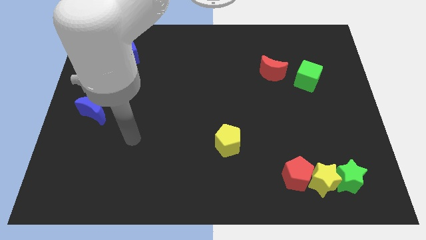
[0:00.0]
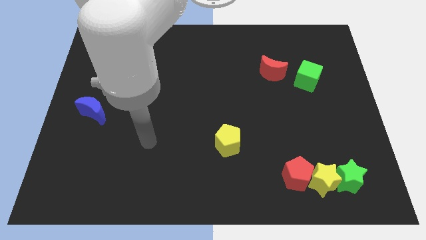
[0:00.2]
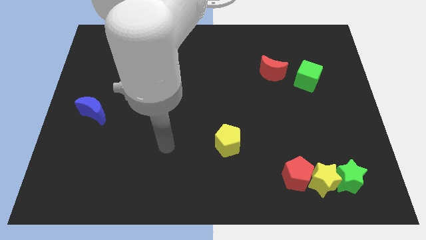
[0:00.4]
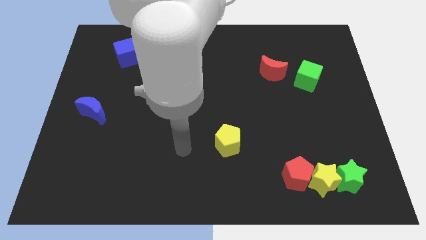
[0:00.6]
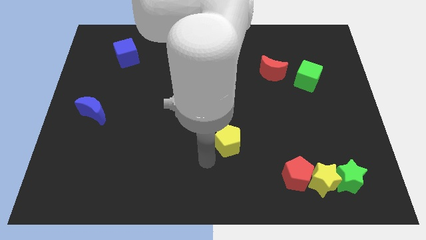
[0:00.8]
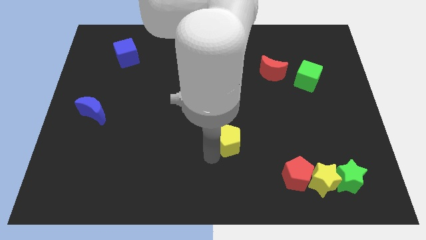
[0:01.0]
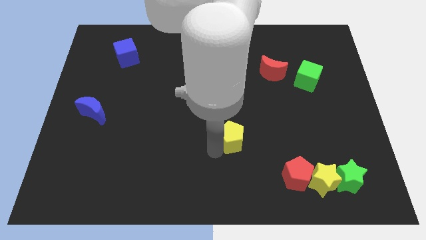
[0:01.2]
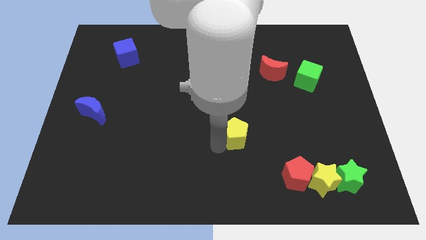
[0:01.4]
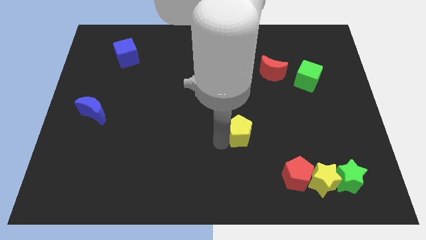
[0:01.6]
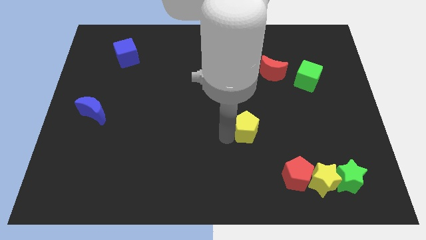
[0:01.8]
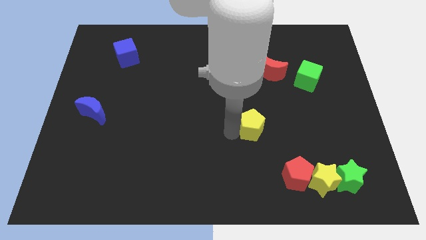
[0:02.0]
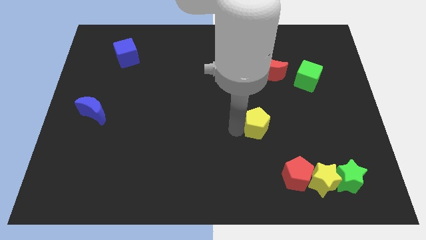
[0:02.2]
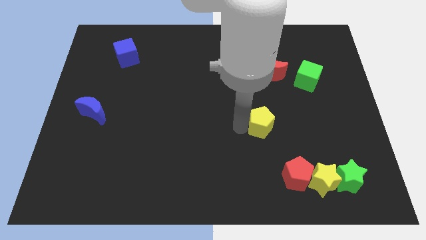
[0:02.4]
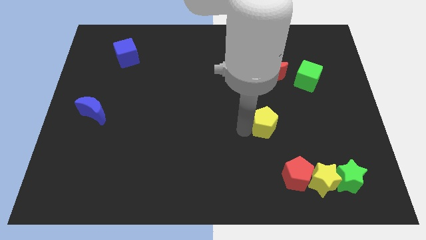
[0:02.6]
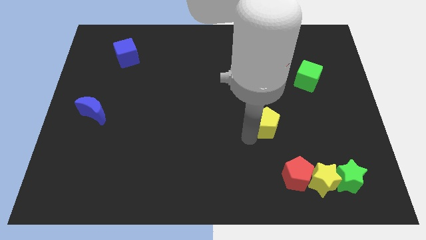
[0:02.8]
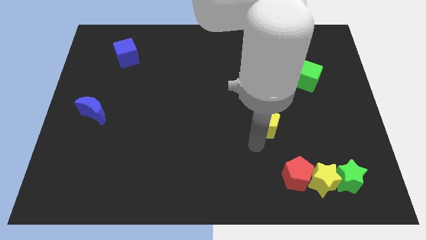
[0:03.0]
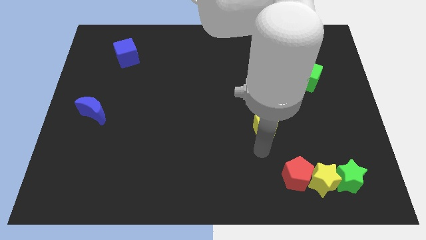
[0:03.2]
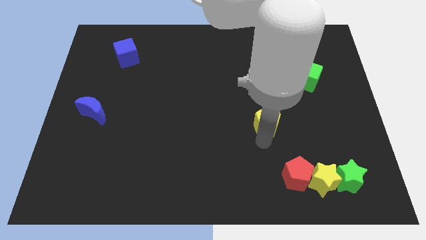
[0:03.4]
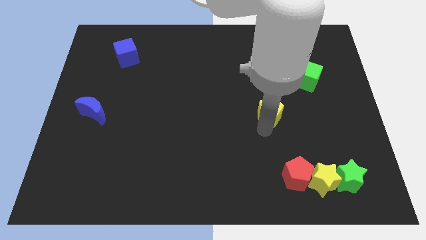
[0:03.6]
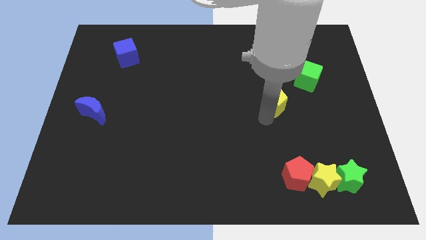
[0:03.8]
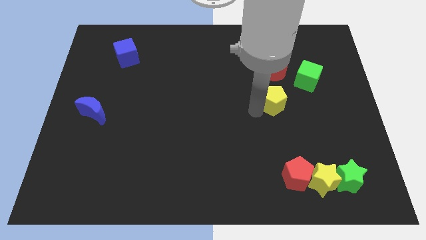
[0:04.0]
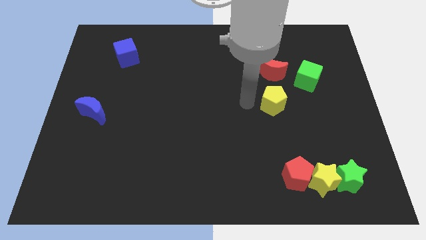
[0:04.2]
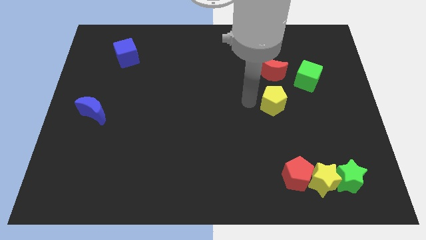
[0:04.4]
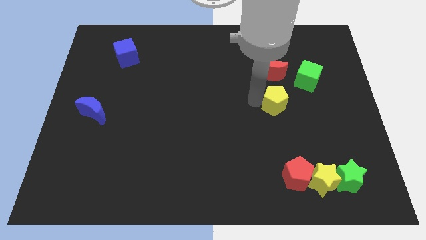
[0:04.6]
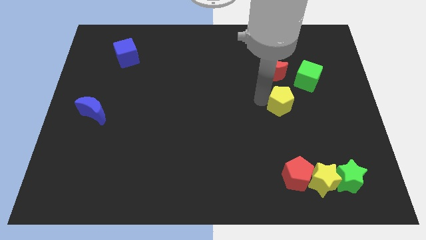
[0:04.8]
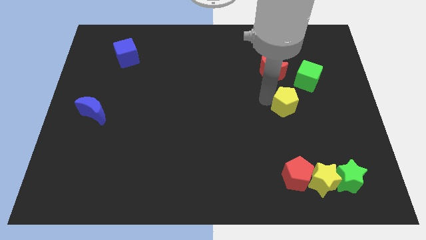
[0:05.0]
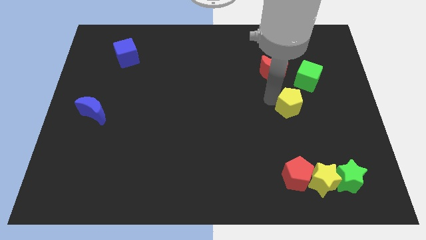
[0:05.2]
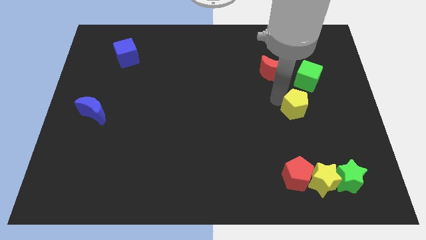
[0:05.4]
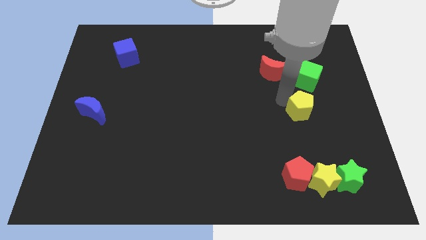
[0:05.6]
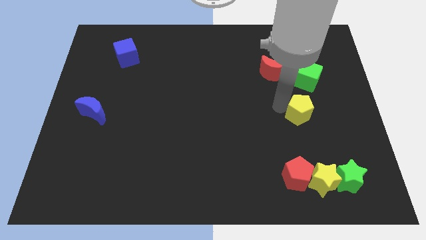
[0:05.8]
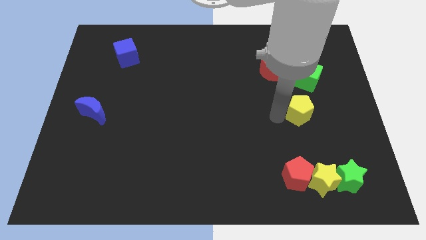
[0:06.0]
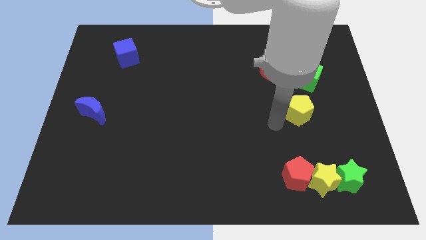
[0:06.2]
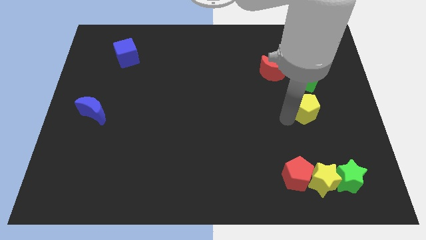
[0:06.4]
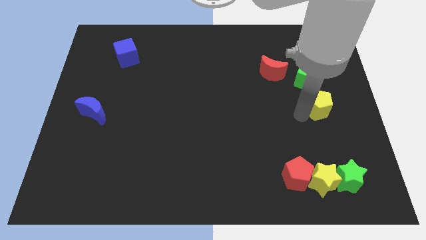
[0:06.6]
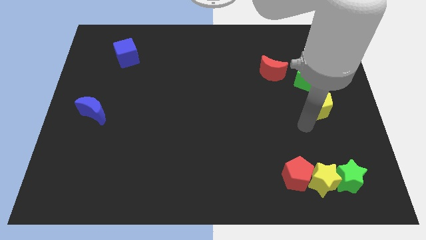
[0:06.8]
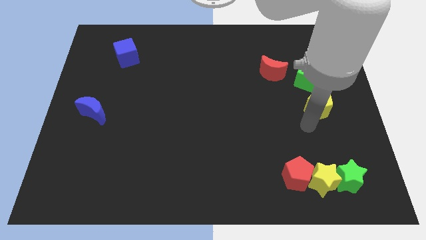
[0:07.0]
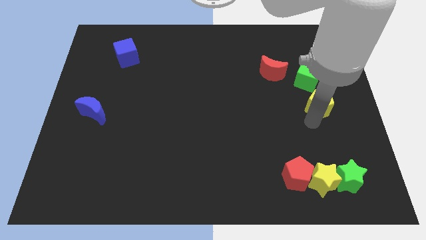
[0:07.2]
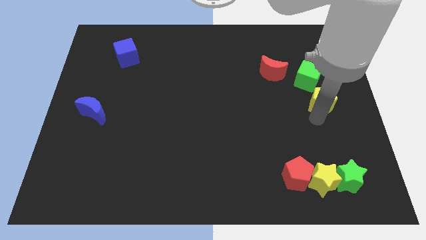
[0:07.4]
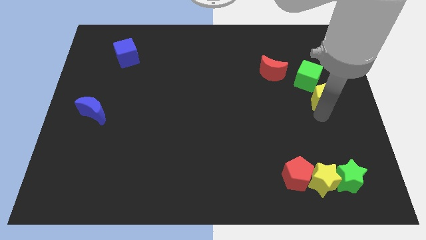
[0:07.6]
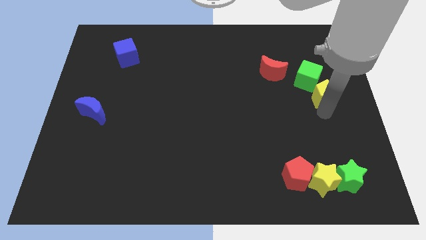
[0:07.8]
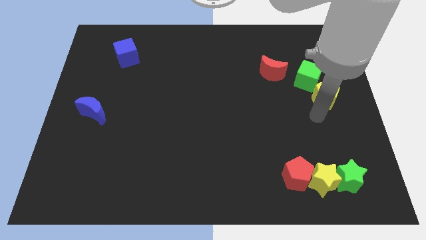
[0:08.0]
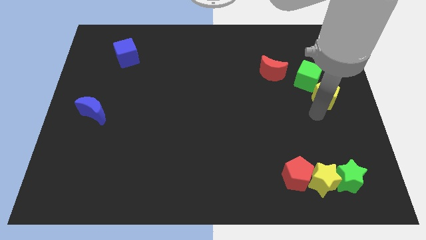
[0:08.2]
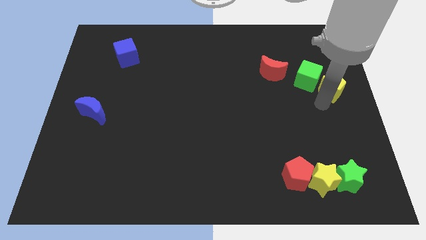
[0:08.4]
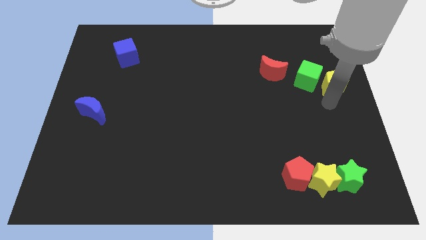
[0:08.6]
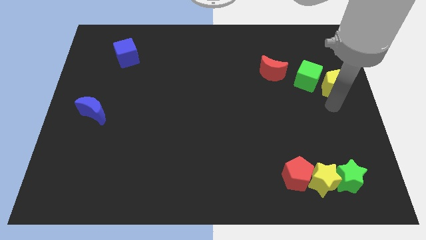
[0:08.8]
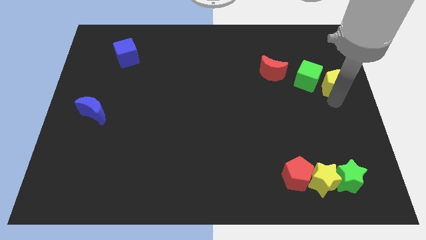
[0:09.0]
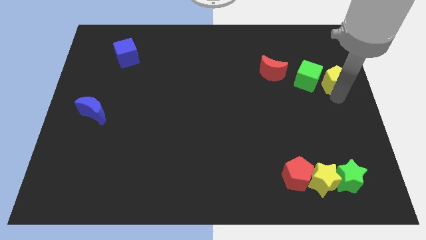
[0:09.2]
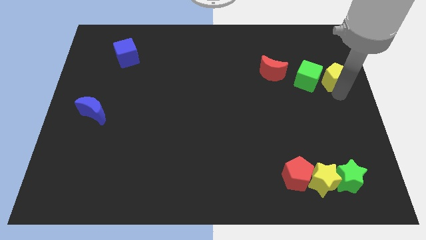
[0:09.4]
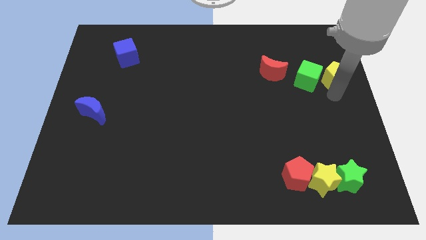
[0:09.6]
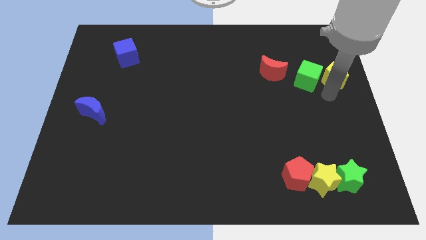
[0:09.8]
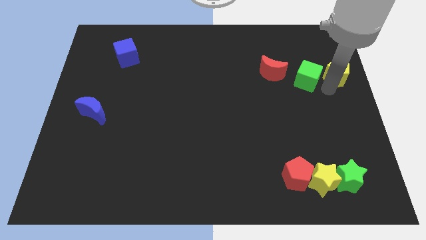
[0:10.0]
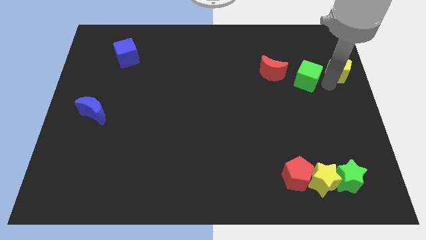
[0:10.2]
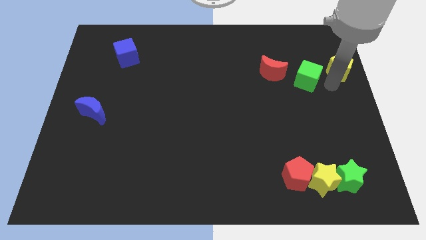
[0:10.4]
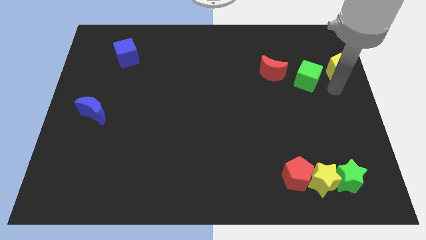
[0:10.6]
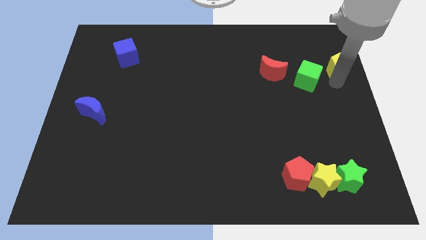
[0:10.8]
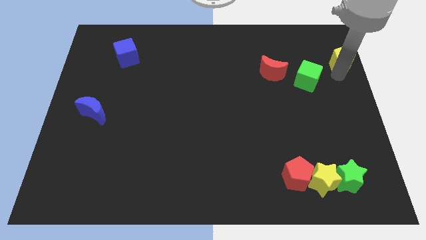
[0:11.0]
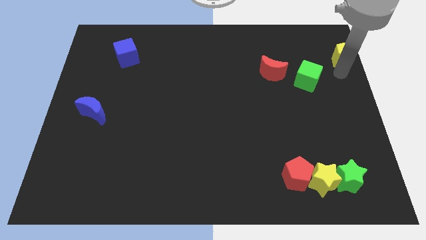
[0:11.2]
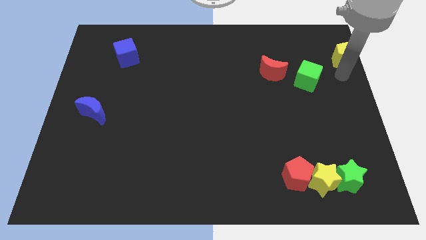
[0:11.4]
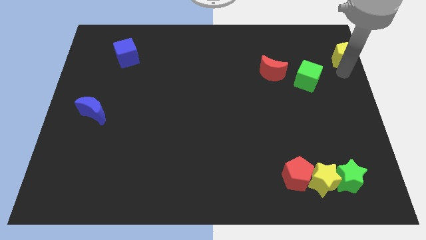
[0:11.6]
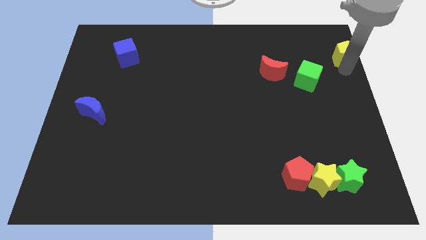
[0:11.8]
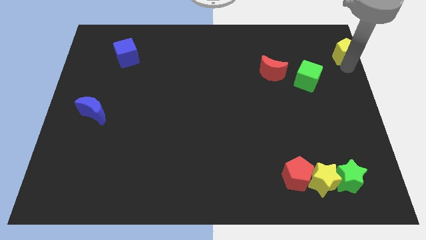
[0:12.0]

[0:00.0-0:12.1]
push the yellow pentagon to the top right corner

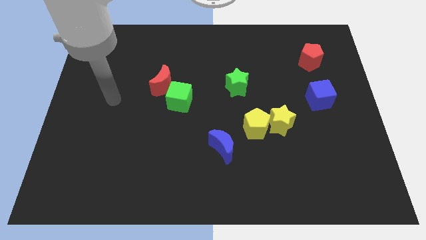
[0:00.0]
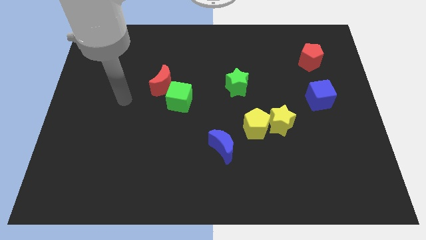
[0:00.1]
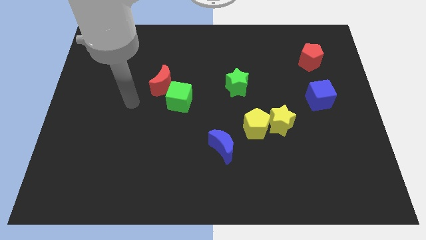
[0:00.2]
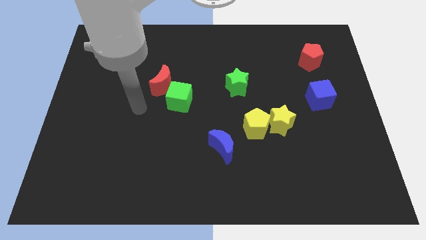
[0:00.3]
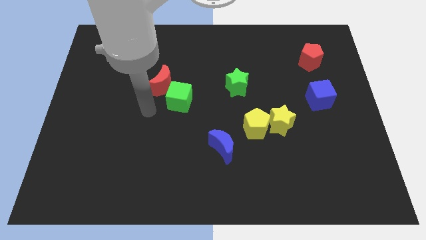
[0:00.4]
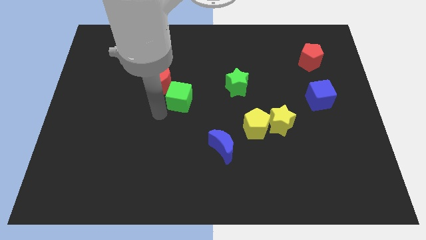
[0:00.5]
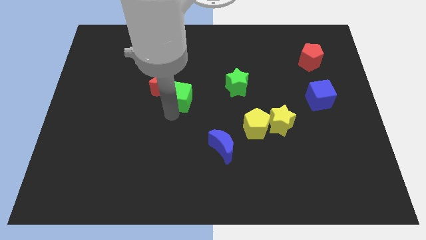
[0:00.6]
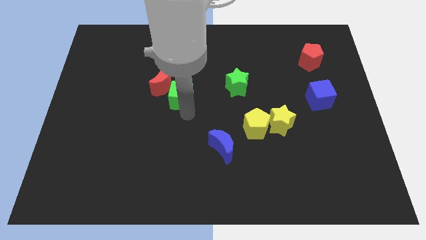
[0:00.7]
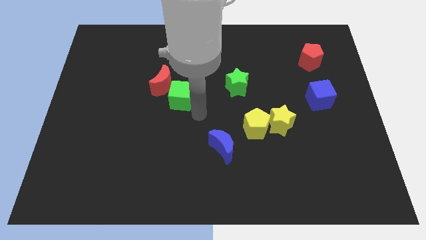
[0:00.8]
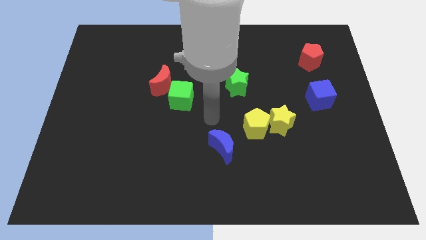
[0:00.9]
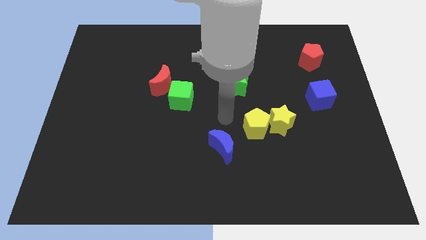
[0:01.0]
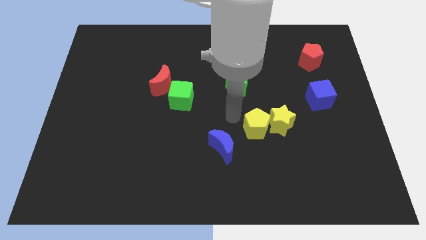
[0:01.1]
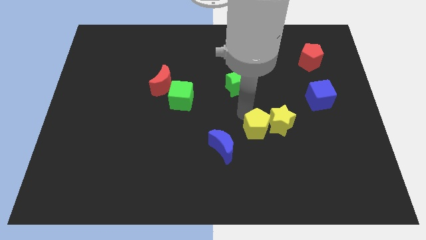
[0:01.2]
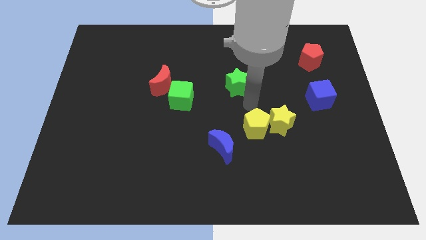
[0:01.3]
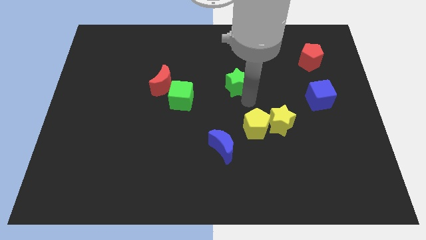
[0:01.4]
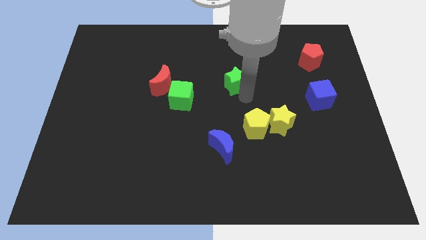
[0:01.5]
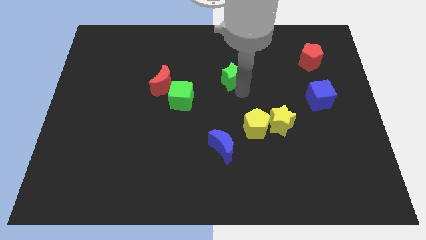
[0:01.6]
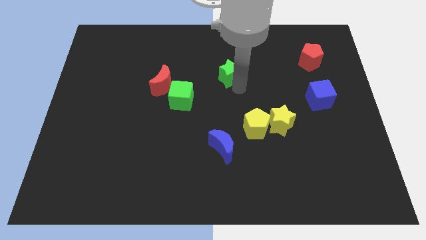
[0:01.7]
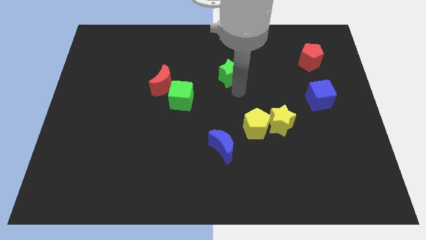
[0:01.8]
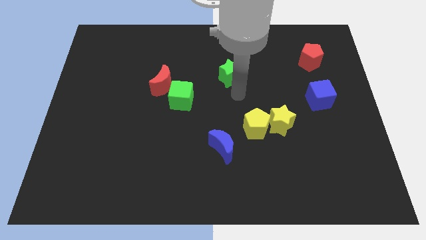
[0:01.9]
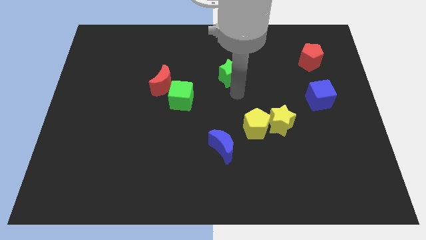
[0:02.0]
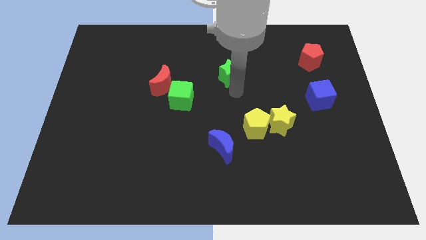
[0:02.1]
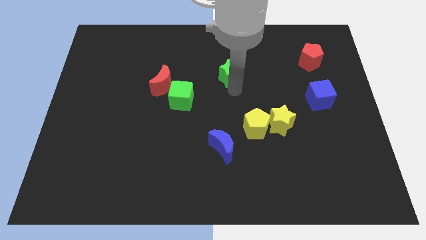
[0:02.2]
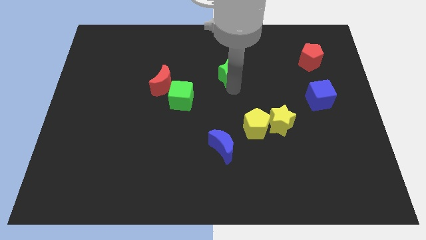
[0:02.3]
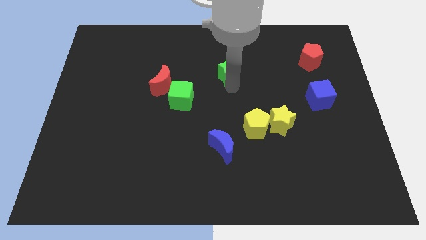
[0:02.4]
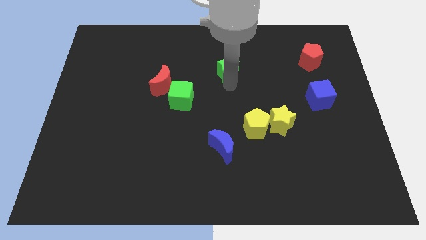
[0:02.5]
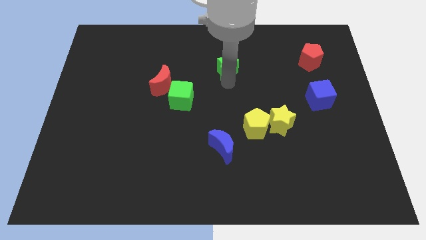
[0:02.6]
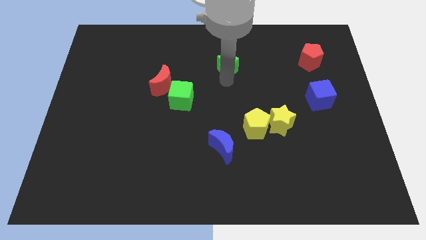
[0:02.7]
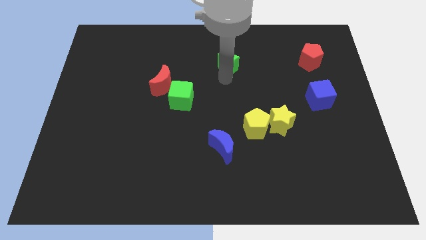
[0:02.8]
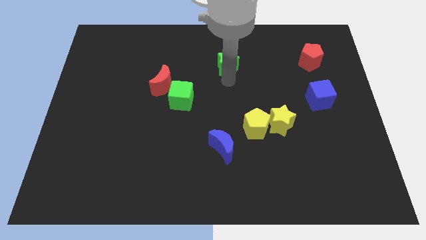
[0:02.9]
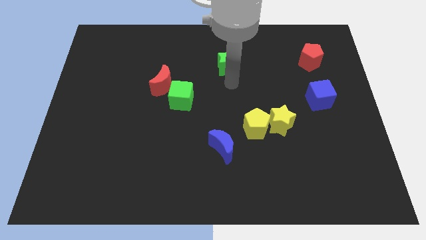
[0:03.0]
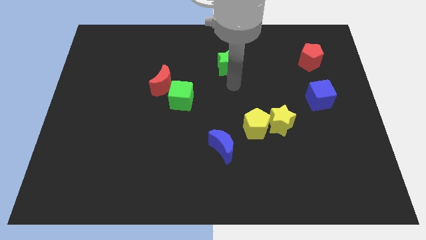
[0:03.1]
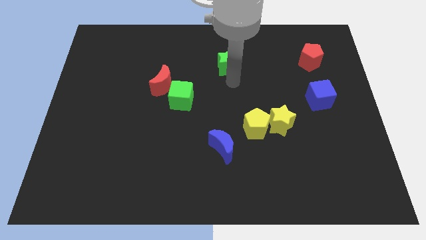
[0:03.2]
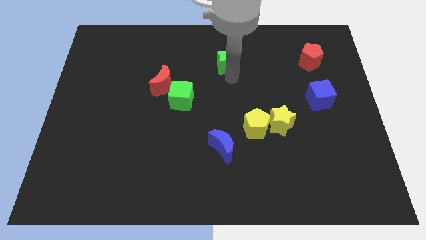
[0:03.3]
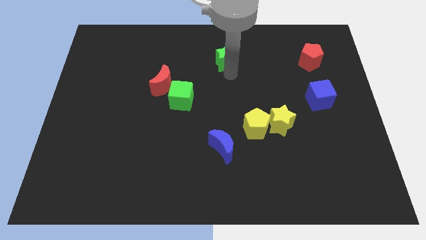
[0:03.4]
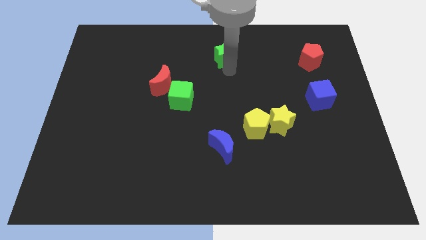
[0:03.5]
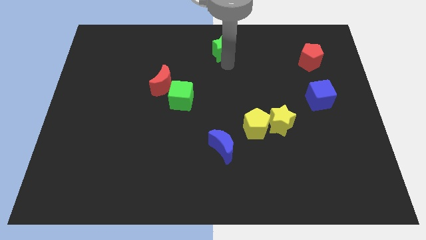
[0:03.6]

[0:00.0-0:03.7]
move the green star to the towards your base
